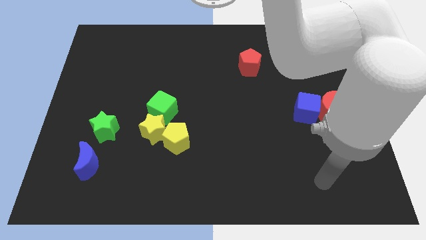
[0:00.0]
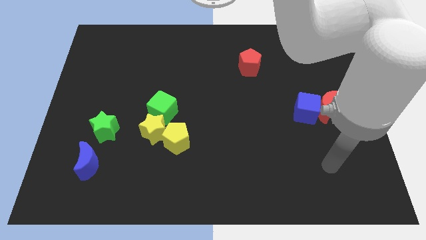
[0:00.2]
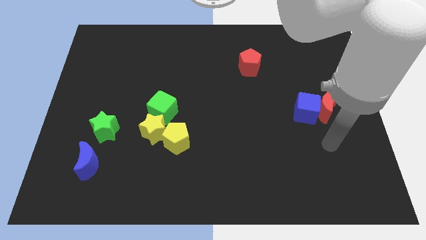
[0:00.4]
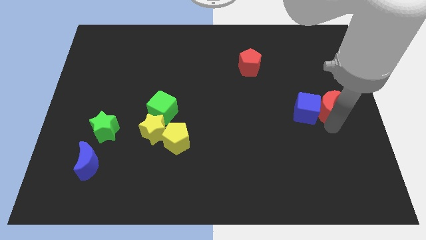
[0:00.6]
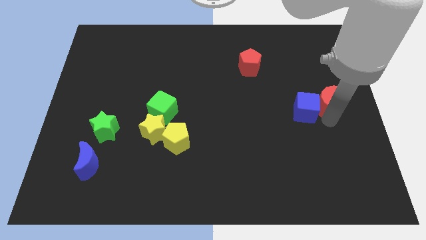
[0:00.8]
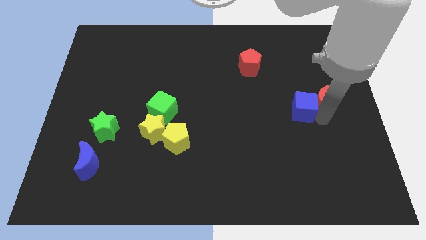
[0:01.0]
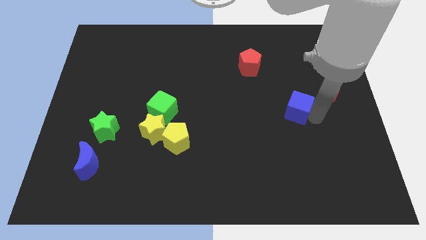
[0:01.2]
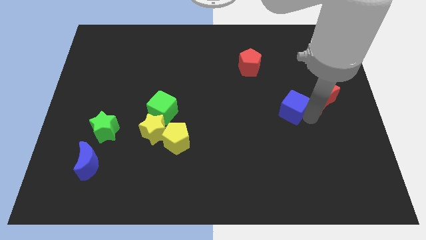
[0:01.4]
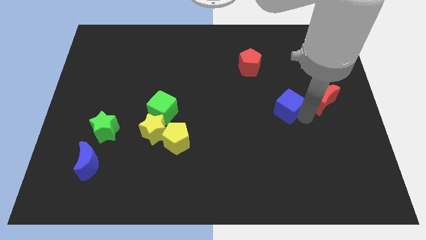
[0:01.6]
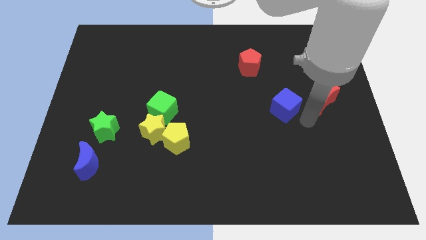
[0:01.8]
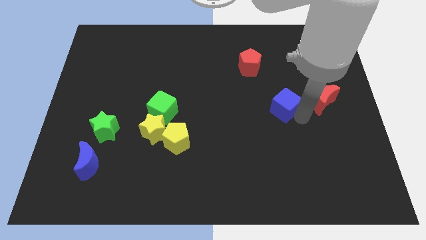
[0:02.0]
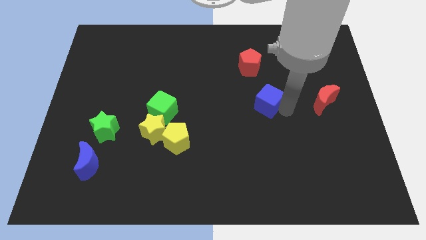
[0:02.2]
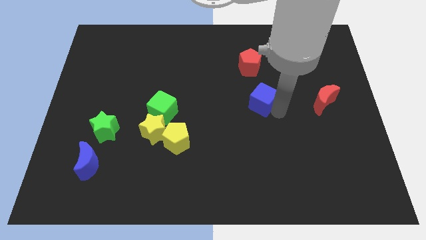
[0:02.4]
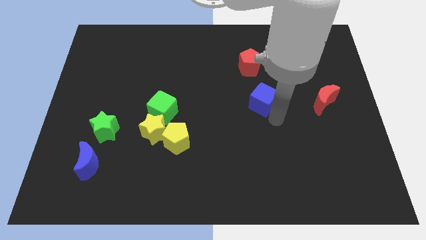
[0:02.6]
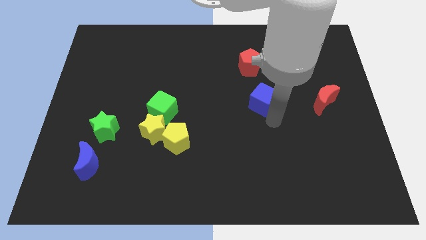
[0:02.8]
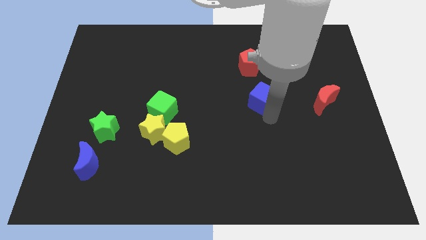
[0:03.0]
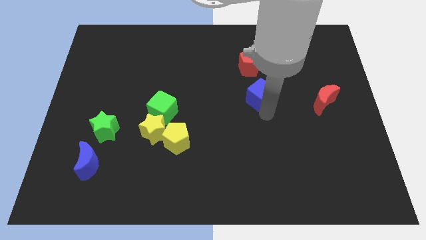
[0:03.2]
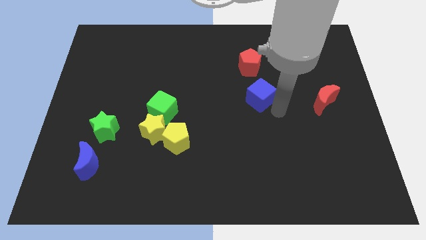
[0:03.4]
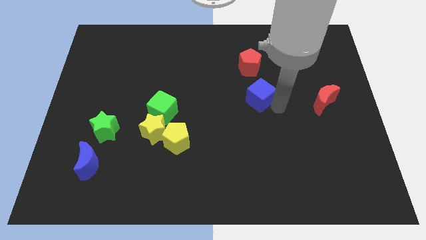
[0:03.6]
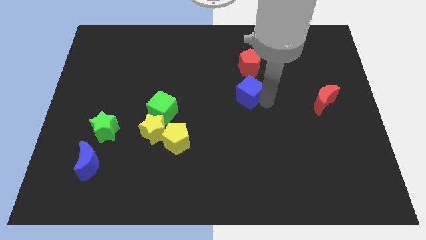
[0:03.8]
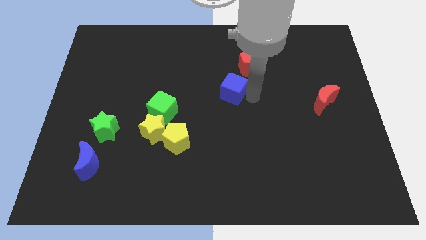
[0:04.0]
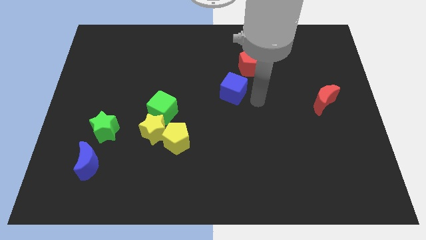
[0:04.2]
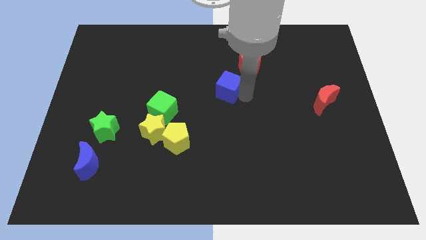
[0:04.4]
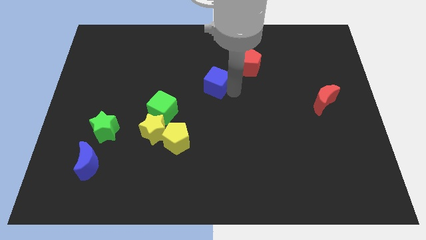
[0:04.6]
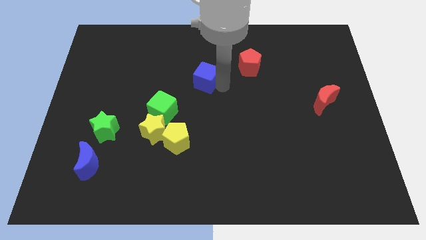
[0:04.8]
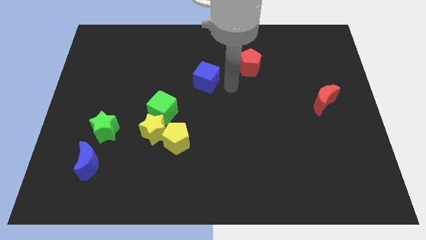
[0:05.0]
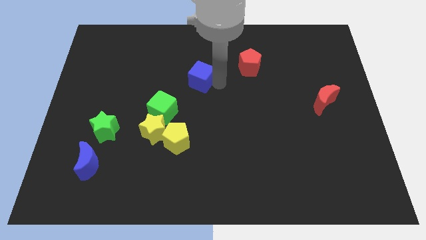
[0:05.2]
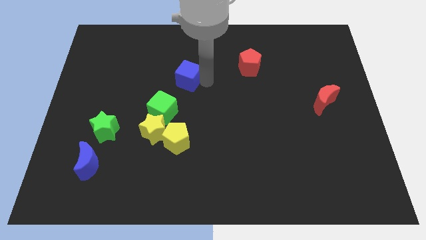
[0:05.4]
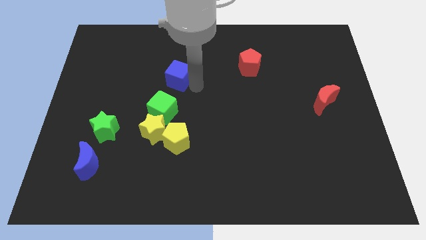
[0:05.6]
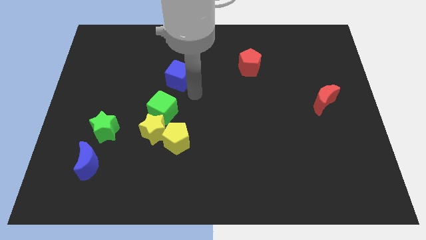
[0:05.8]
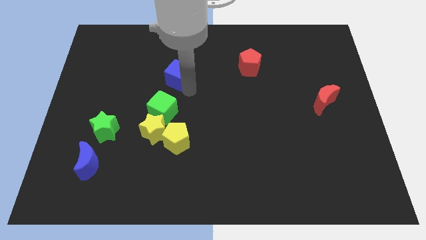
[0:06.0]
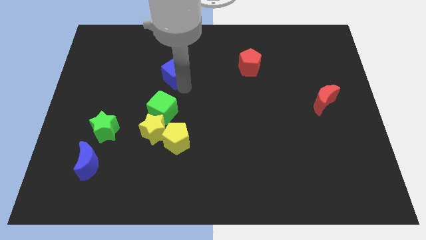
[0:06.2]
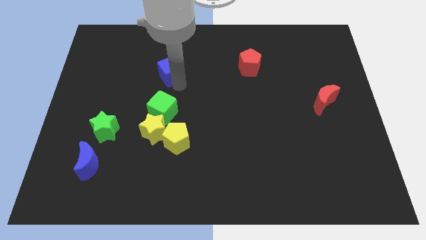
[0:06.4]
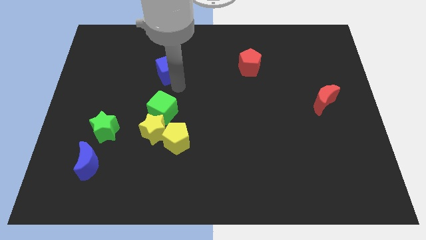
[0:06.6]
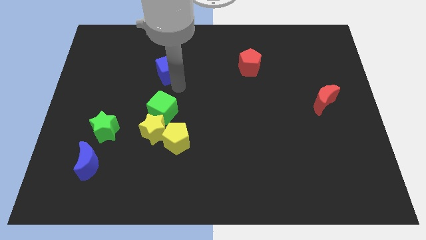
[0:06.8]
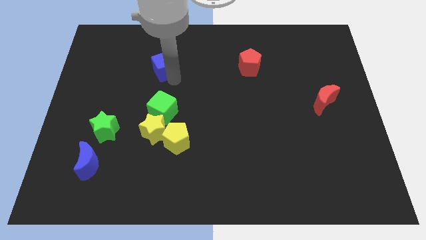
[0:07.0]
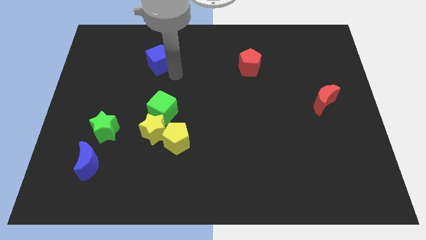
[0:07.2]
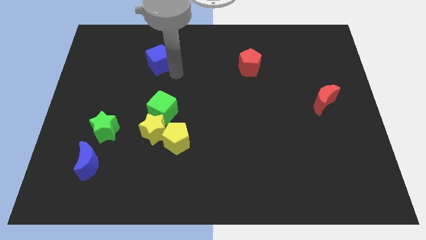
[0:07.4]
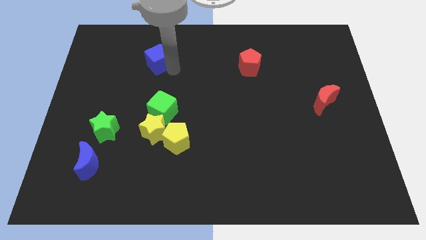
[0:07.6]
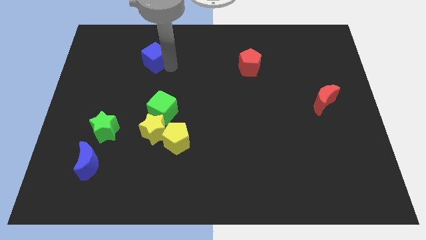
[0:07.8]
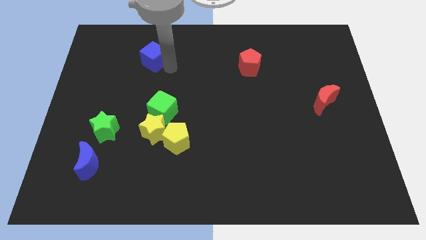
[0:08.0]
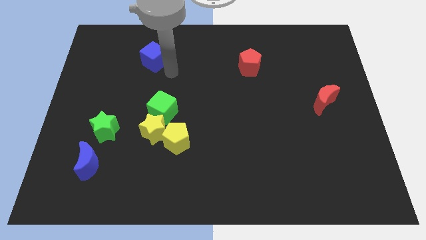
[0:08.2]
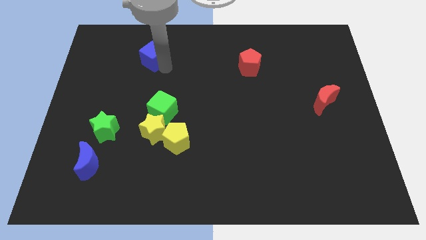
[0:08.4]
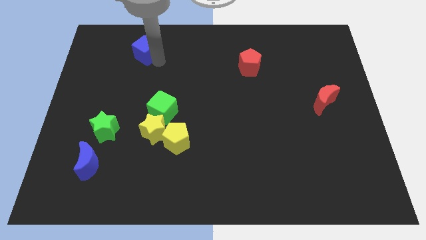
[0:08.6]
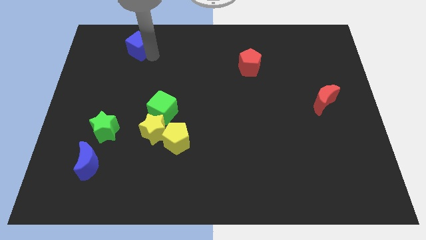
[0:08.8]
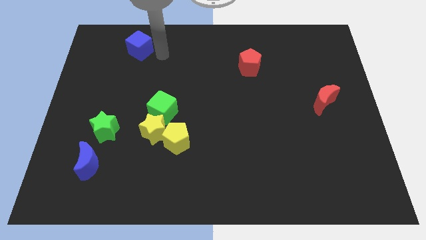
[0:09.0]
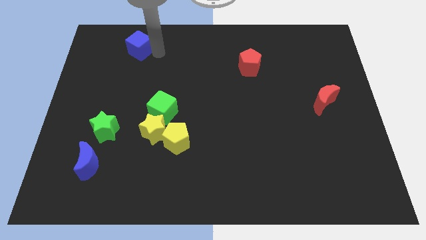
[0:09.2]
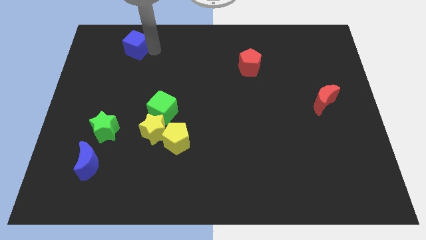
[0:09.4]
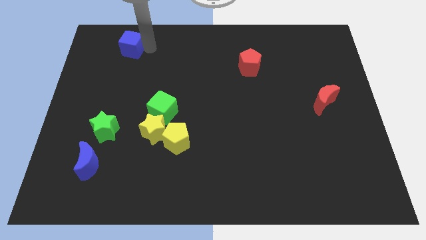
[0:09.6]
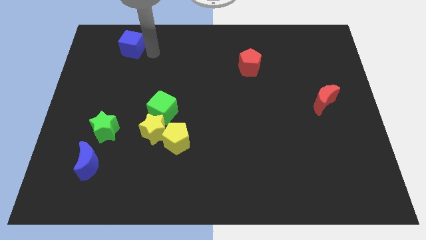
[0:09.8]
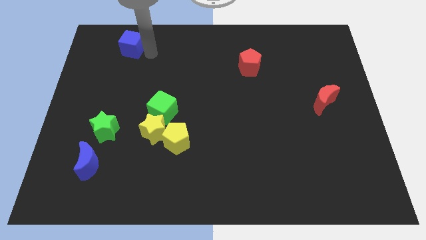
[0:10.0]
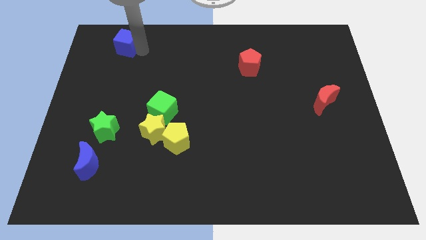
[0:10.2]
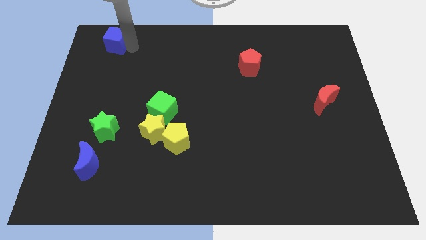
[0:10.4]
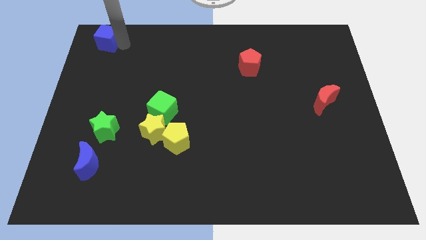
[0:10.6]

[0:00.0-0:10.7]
move the blue cube to the top left of the board

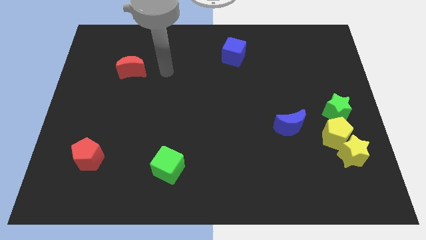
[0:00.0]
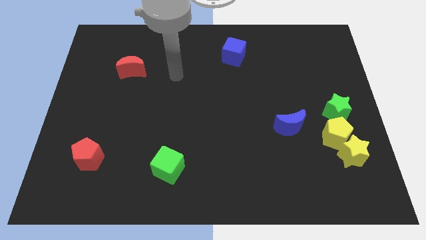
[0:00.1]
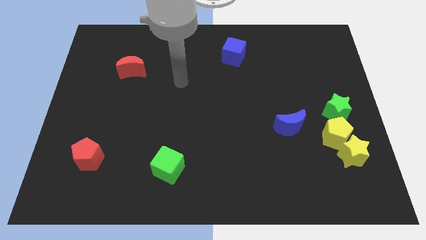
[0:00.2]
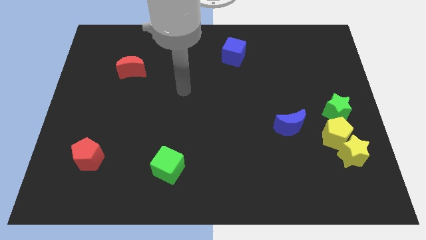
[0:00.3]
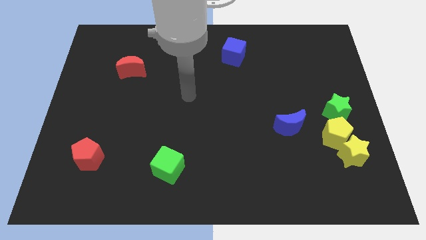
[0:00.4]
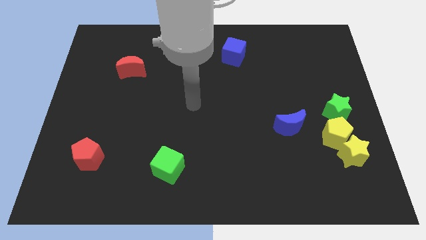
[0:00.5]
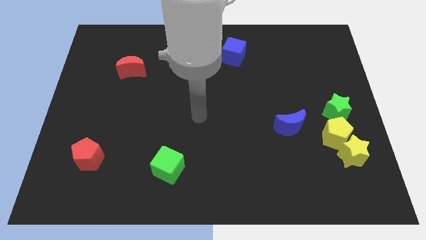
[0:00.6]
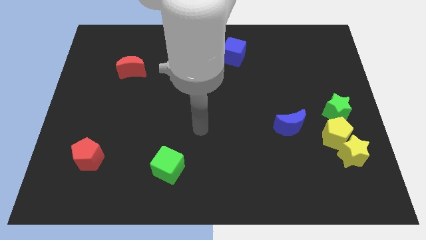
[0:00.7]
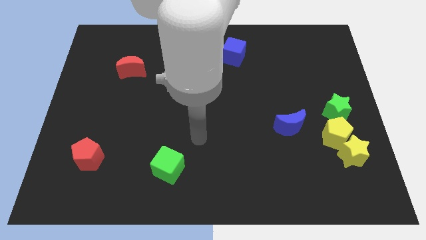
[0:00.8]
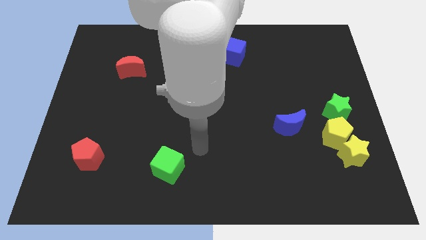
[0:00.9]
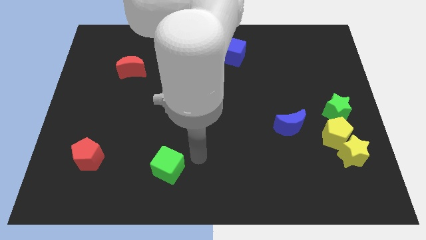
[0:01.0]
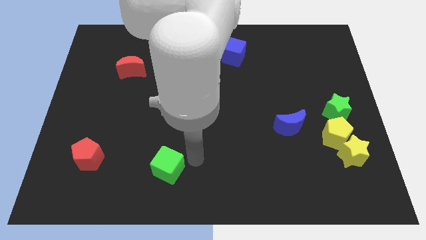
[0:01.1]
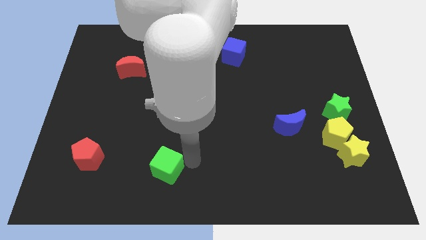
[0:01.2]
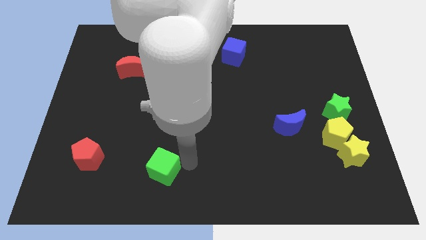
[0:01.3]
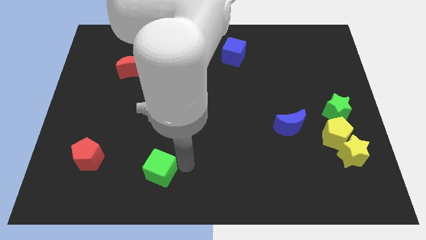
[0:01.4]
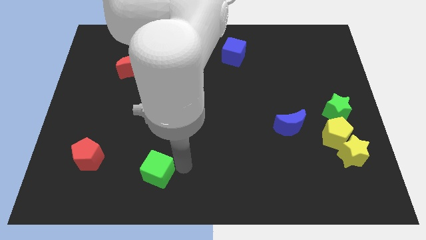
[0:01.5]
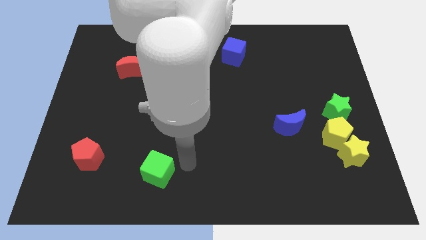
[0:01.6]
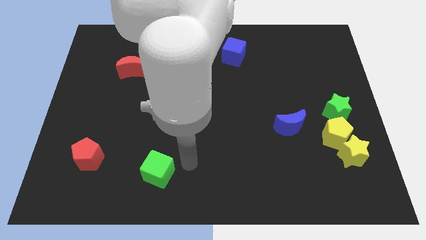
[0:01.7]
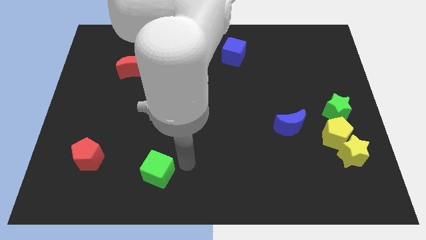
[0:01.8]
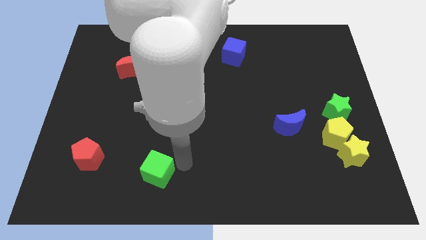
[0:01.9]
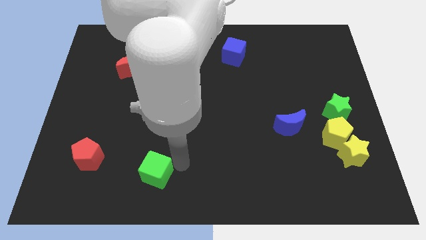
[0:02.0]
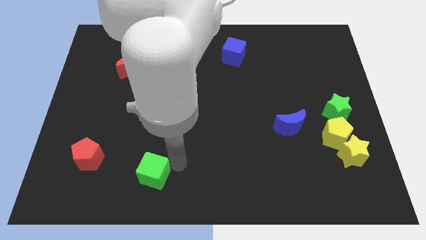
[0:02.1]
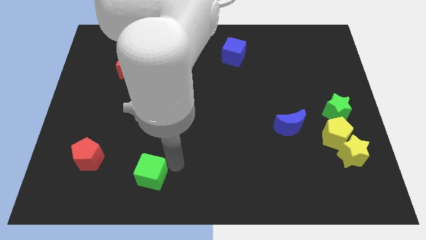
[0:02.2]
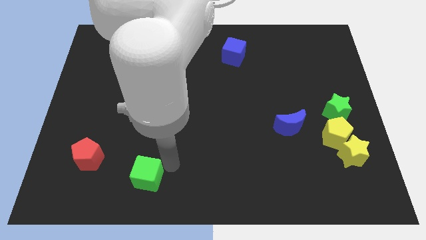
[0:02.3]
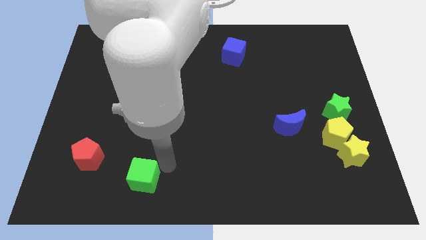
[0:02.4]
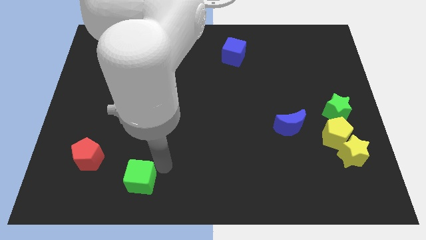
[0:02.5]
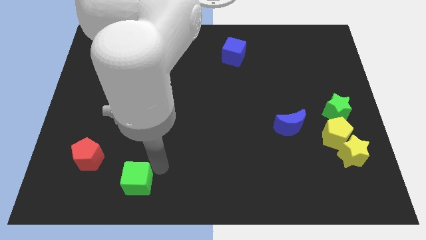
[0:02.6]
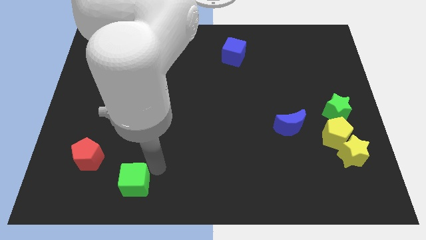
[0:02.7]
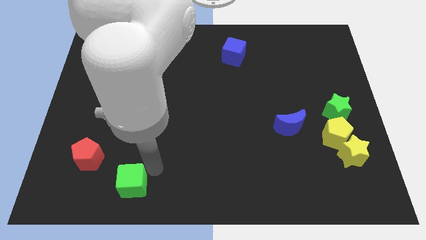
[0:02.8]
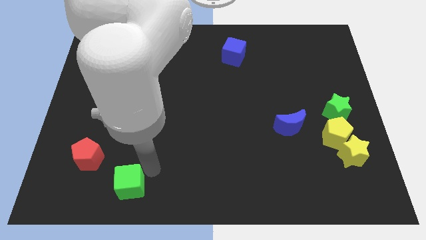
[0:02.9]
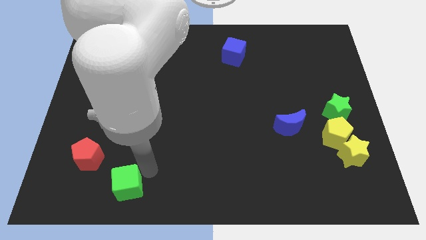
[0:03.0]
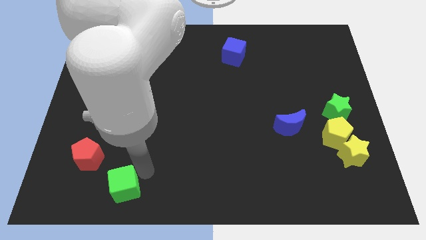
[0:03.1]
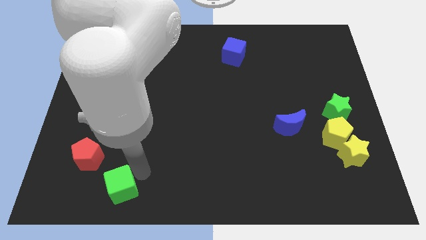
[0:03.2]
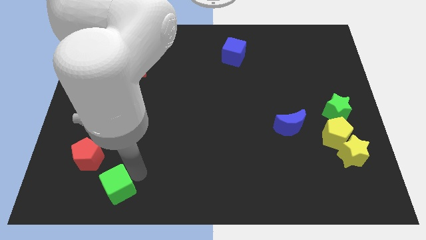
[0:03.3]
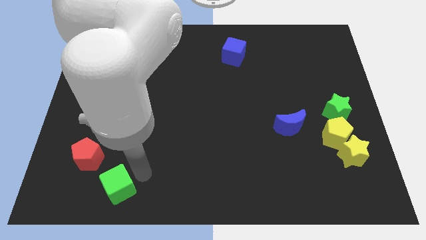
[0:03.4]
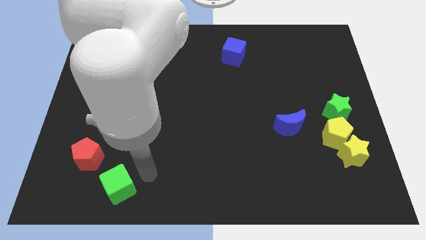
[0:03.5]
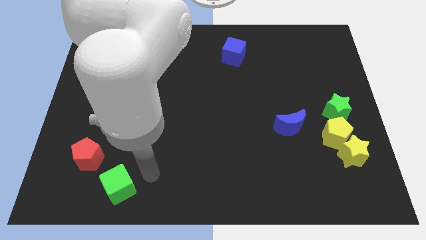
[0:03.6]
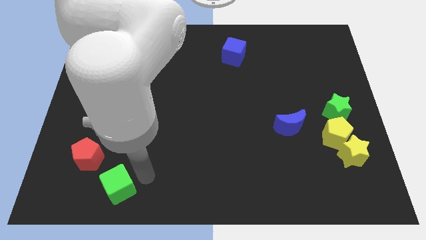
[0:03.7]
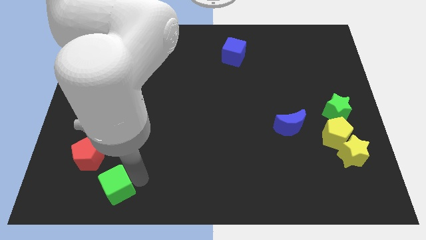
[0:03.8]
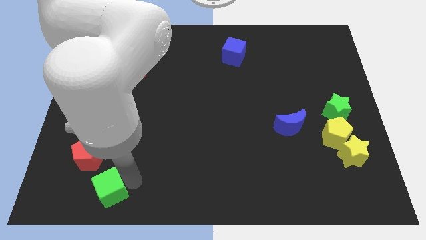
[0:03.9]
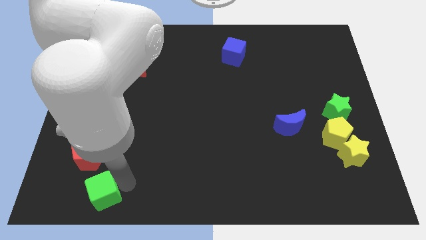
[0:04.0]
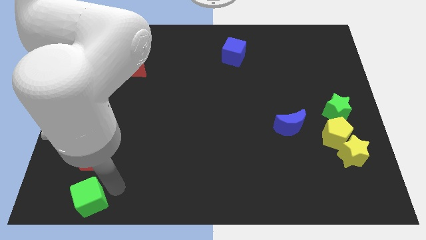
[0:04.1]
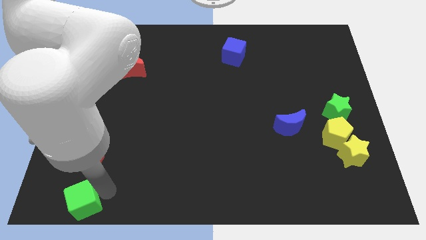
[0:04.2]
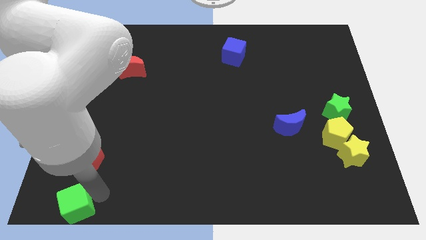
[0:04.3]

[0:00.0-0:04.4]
move the green cube to the bottom left of the board
